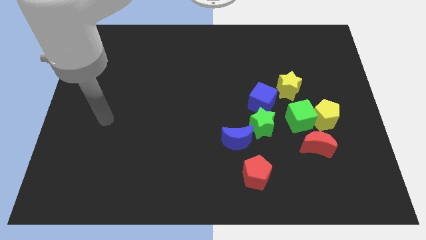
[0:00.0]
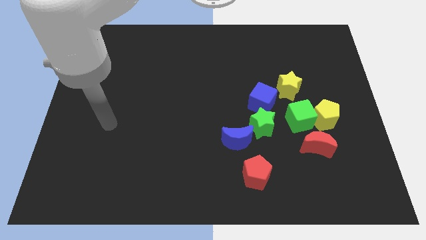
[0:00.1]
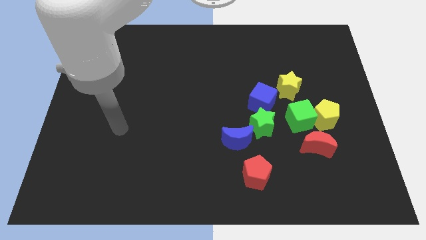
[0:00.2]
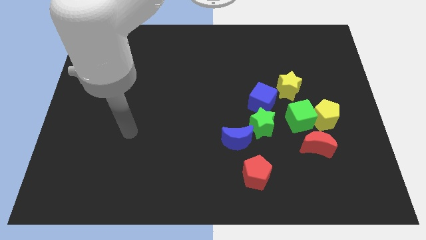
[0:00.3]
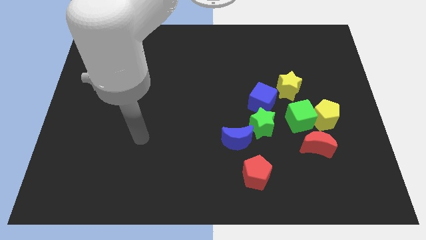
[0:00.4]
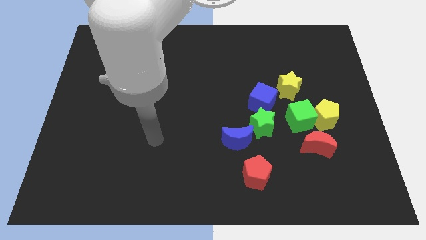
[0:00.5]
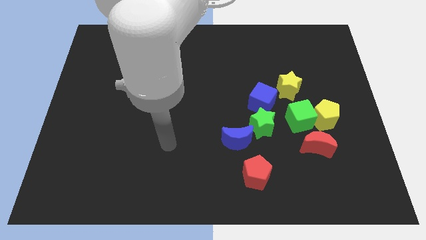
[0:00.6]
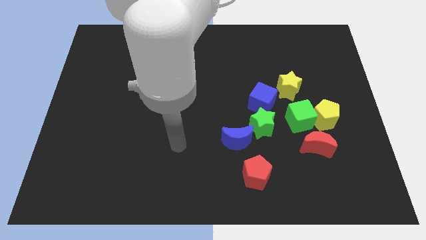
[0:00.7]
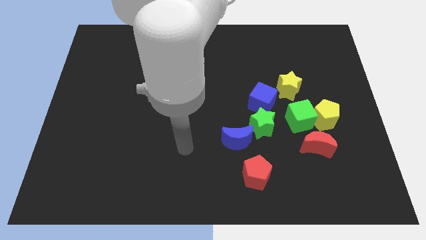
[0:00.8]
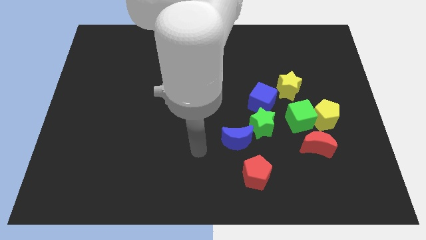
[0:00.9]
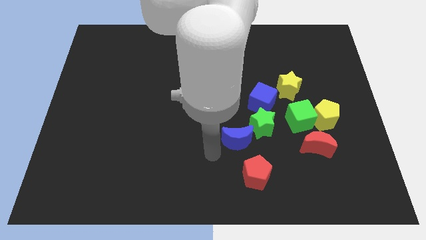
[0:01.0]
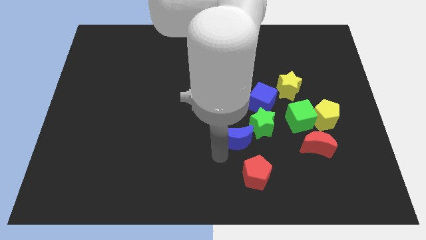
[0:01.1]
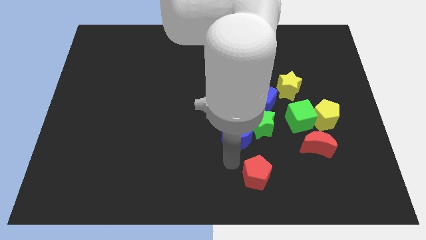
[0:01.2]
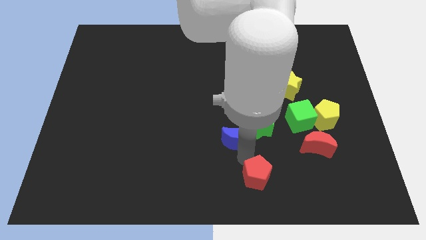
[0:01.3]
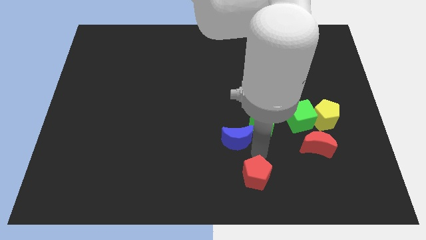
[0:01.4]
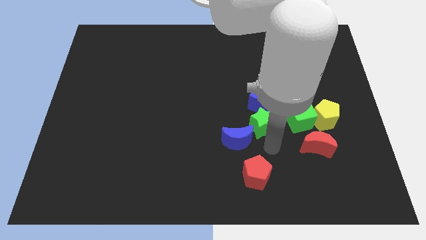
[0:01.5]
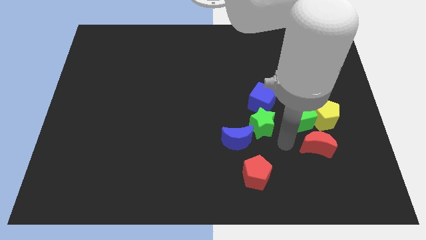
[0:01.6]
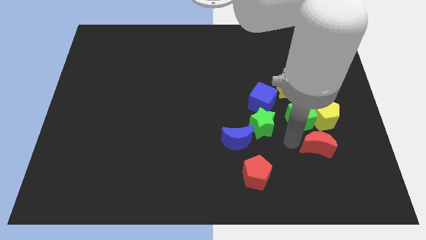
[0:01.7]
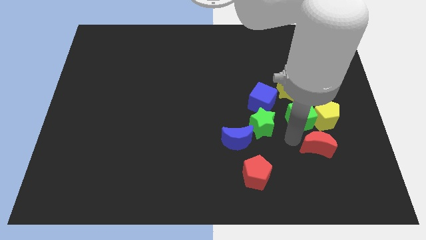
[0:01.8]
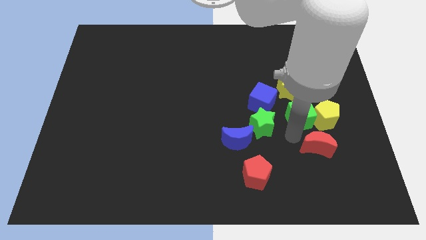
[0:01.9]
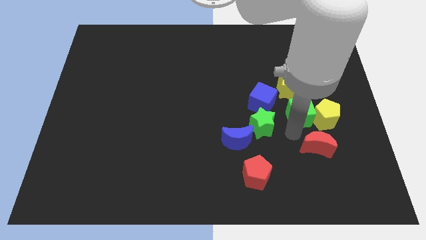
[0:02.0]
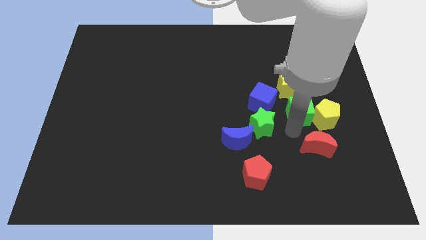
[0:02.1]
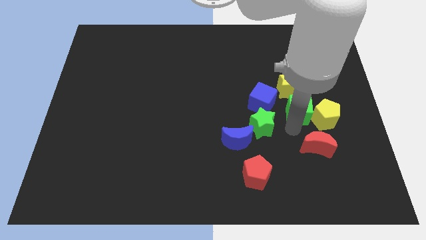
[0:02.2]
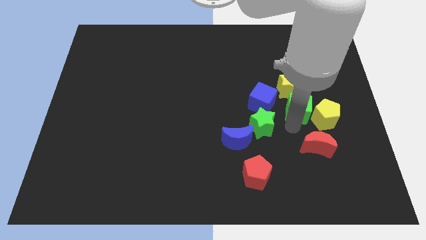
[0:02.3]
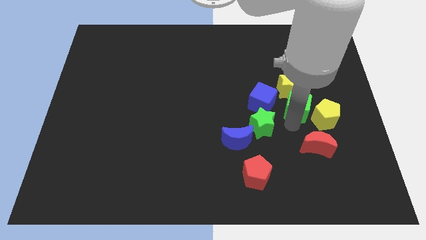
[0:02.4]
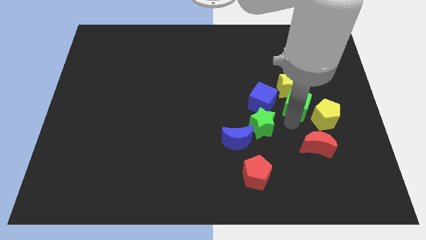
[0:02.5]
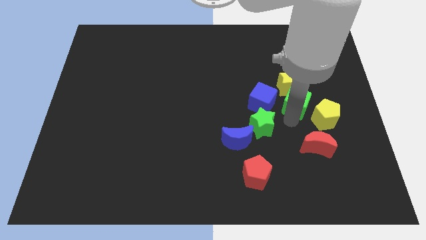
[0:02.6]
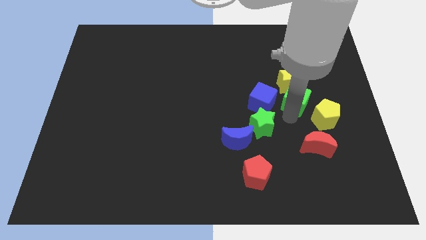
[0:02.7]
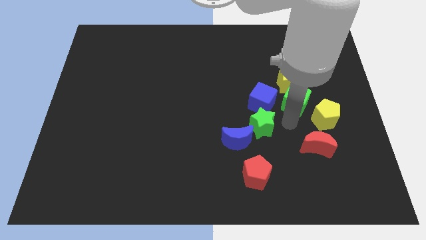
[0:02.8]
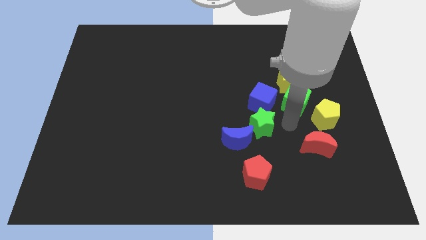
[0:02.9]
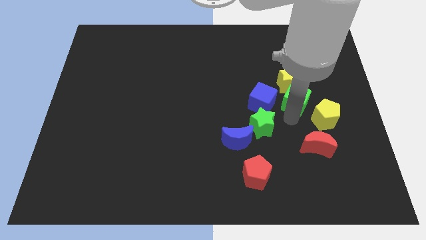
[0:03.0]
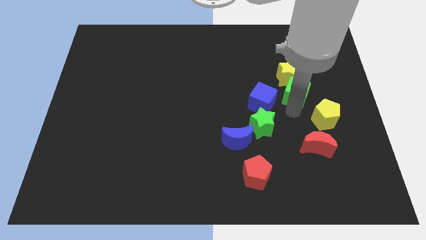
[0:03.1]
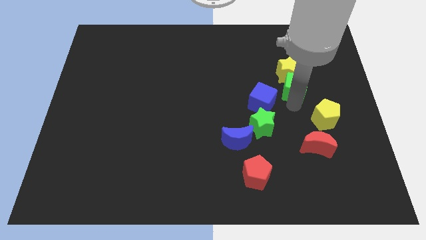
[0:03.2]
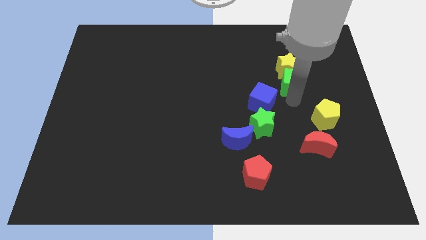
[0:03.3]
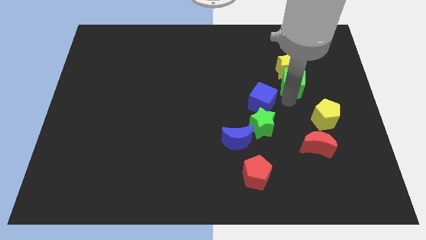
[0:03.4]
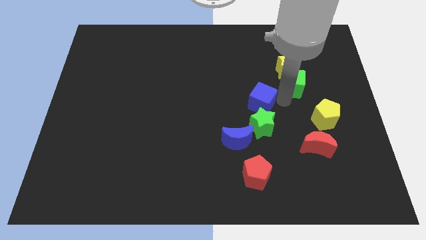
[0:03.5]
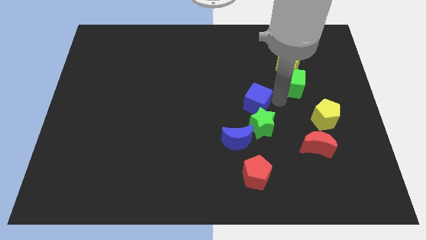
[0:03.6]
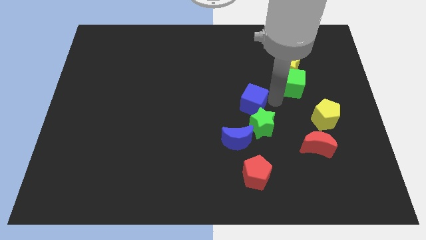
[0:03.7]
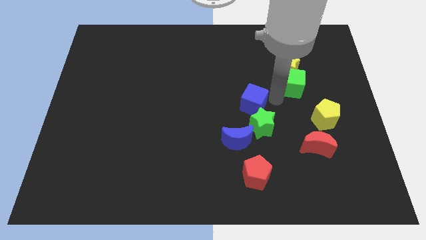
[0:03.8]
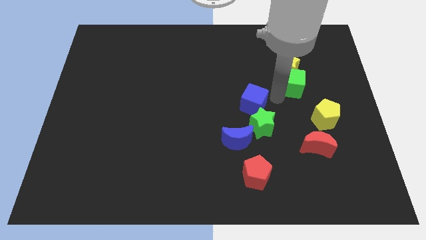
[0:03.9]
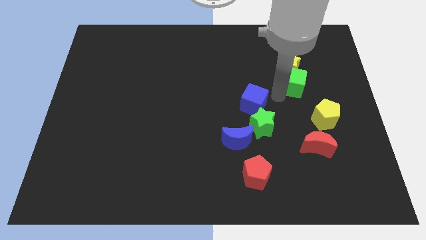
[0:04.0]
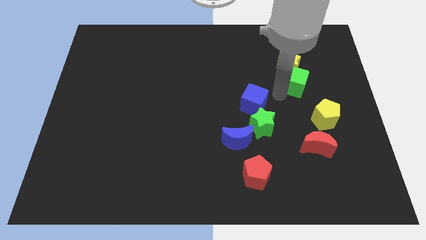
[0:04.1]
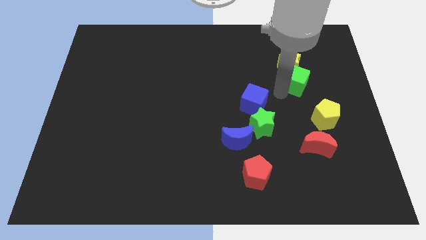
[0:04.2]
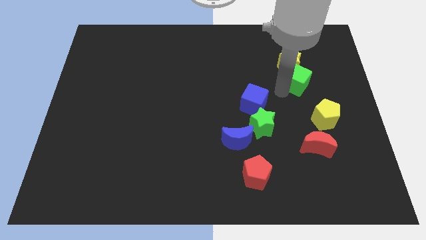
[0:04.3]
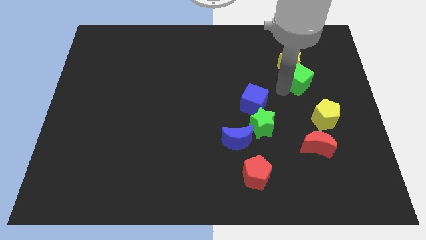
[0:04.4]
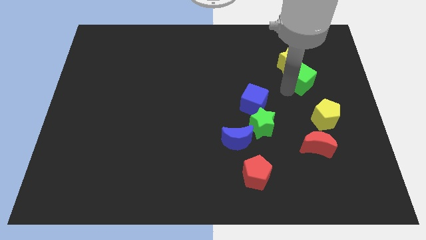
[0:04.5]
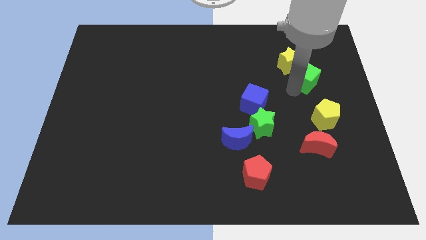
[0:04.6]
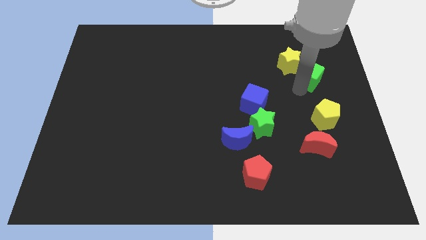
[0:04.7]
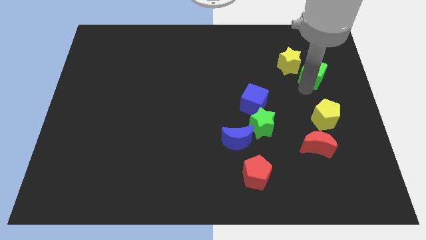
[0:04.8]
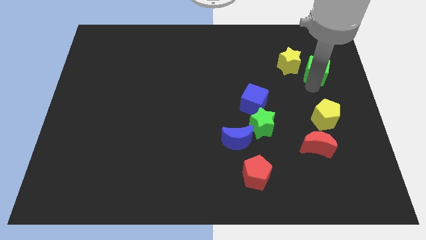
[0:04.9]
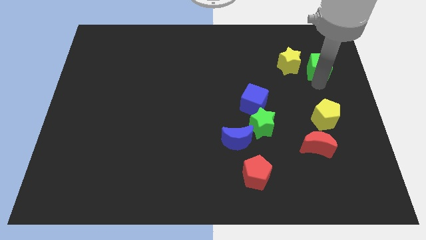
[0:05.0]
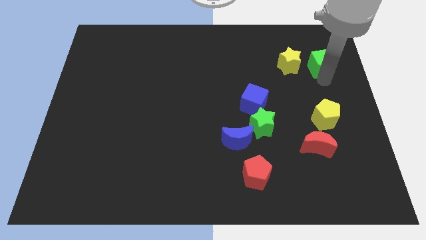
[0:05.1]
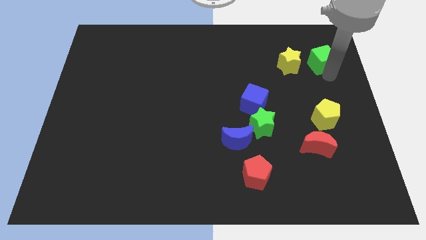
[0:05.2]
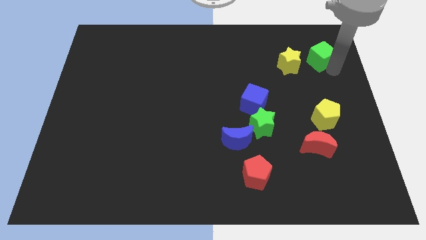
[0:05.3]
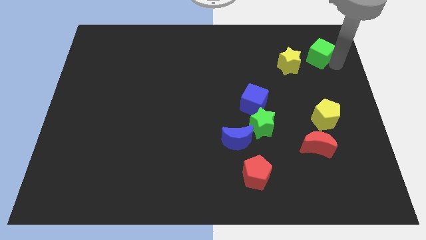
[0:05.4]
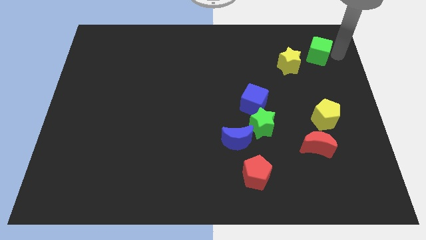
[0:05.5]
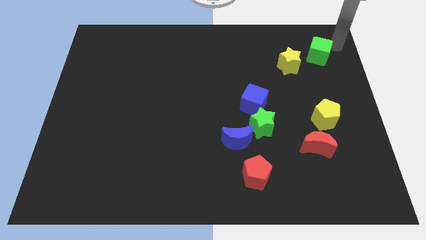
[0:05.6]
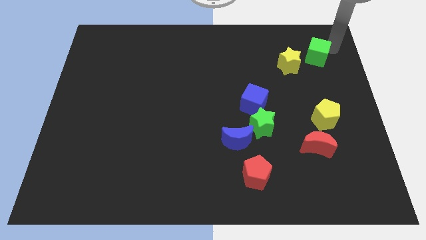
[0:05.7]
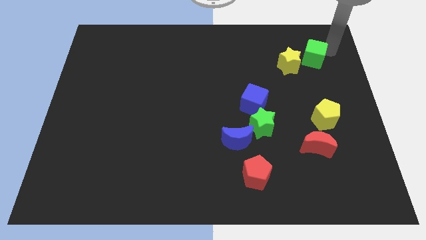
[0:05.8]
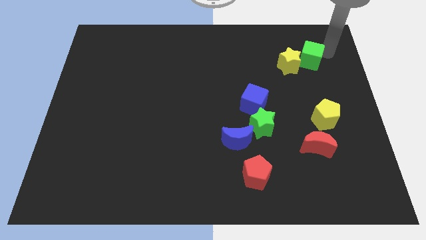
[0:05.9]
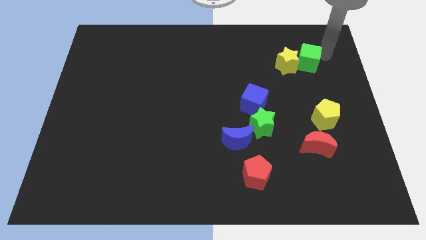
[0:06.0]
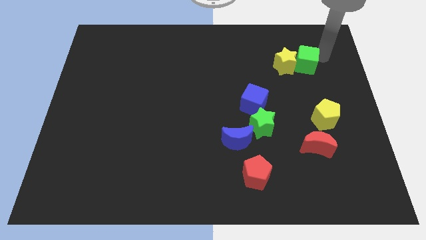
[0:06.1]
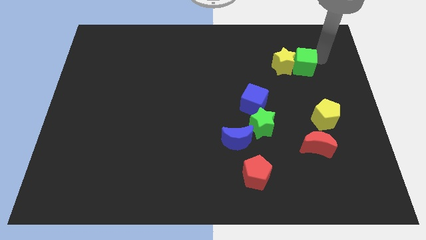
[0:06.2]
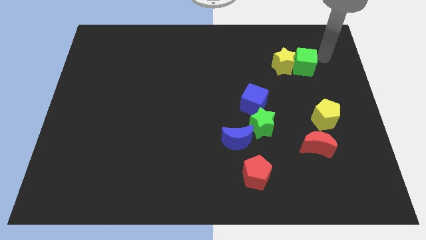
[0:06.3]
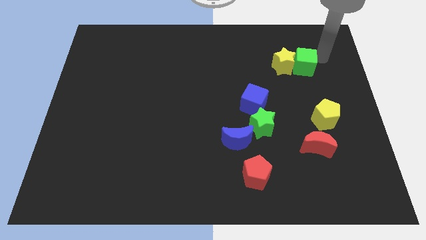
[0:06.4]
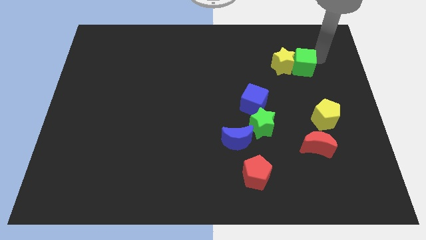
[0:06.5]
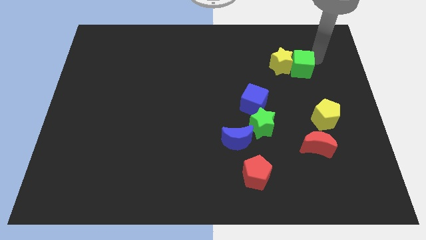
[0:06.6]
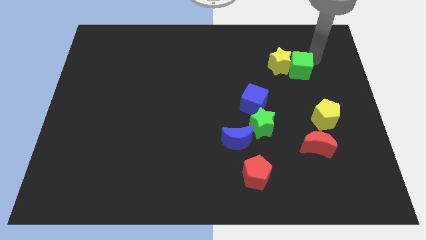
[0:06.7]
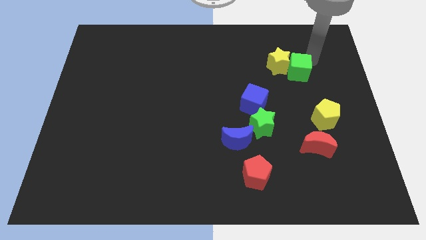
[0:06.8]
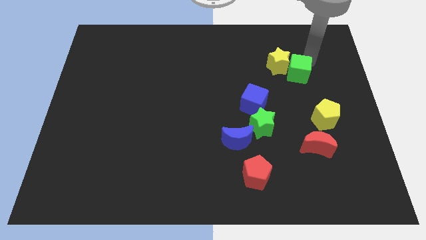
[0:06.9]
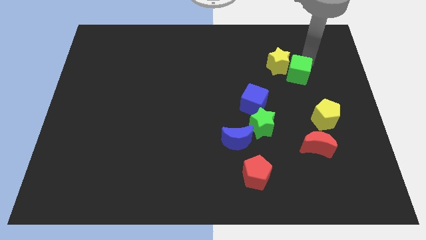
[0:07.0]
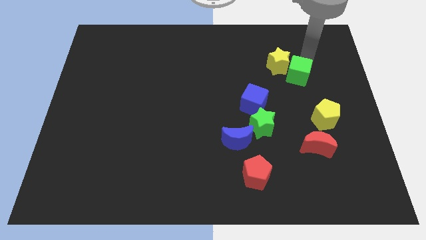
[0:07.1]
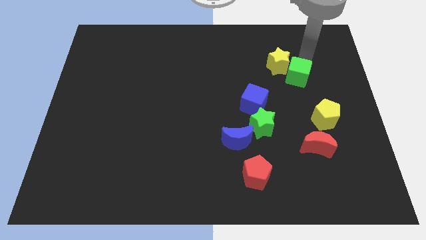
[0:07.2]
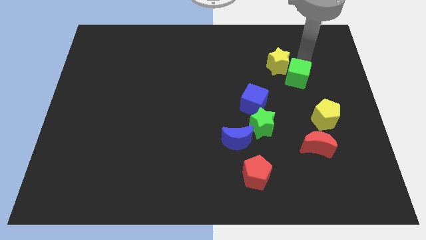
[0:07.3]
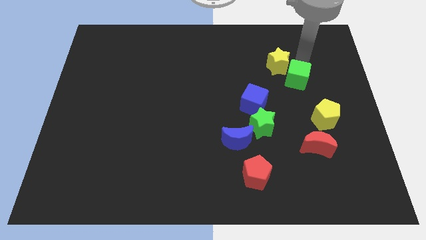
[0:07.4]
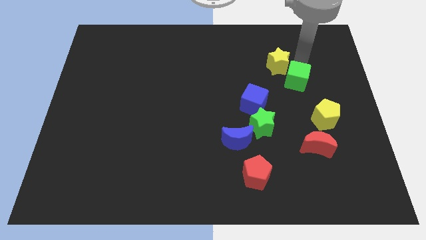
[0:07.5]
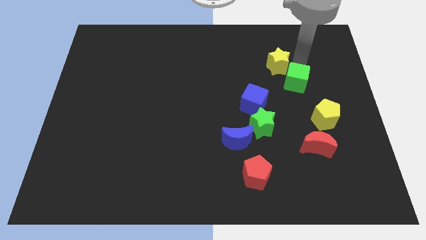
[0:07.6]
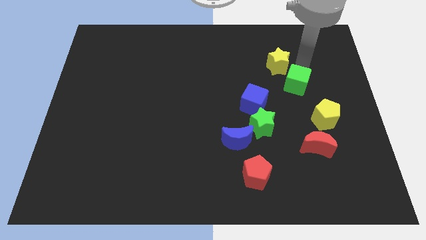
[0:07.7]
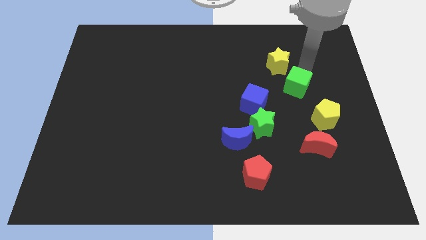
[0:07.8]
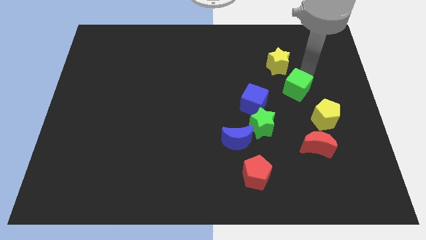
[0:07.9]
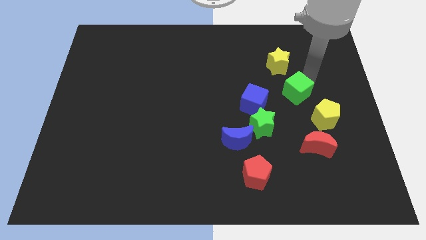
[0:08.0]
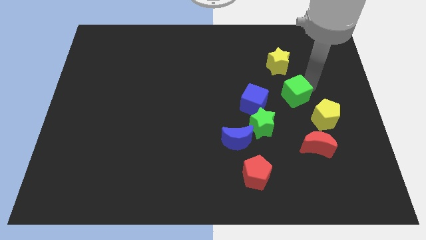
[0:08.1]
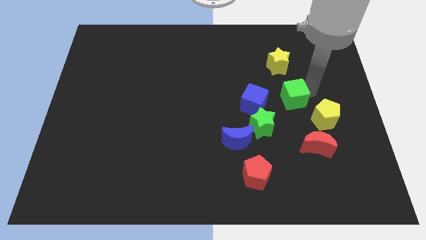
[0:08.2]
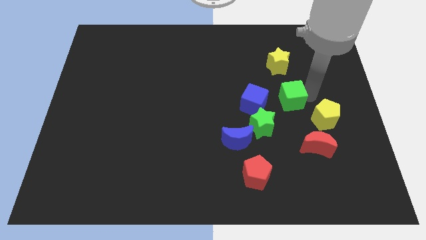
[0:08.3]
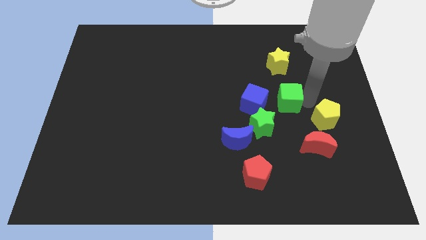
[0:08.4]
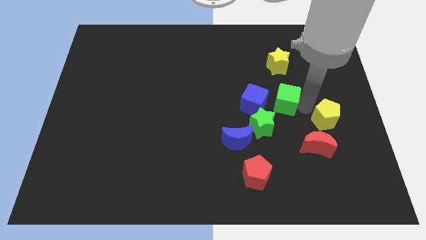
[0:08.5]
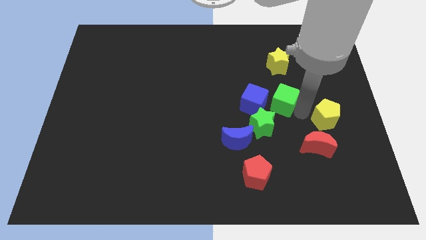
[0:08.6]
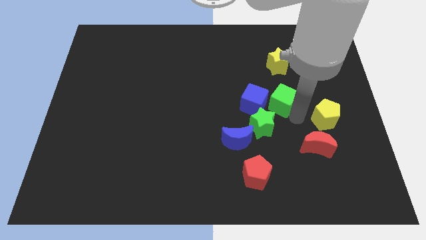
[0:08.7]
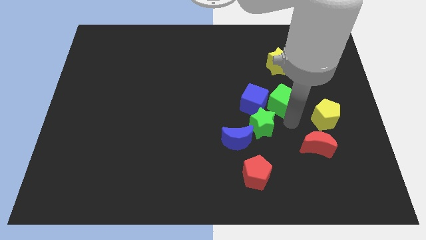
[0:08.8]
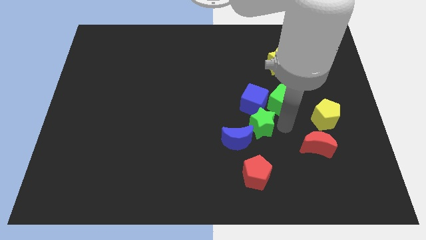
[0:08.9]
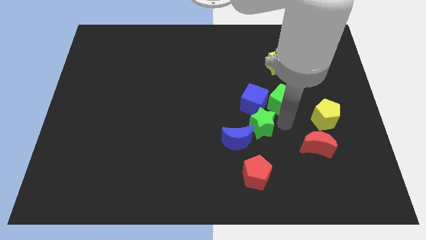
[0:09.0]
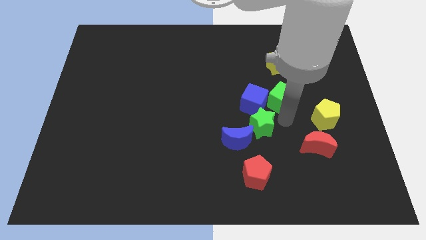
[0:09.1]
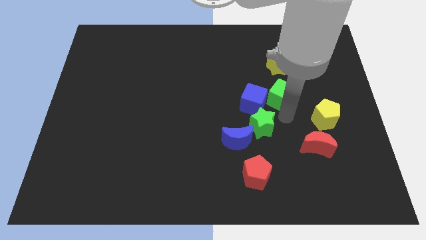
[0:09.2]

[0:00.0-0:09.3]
slightly slide the green cube up and to the left diagonally
